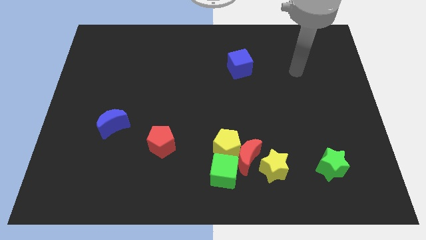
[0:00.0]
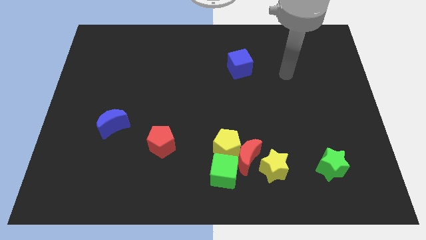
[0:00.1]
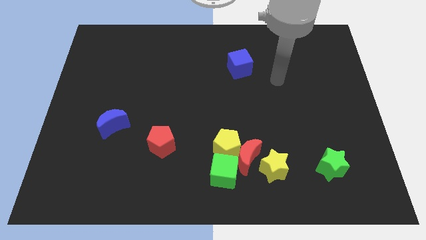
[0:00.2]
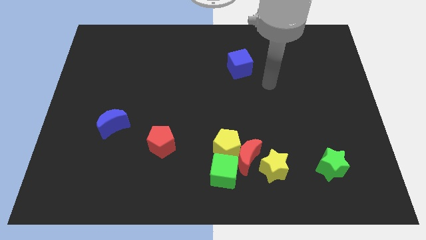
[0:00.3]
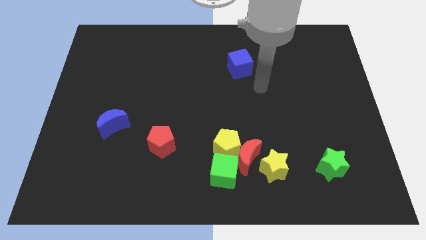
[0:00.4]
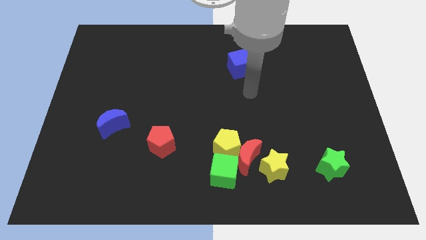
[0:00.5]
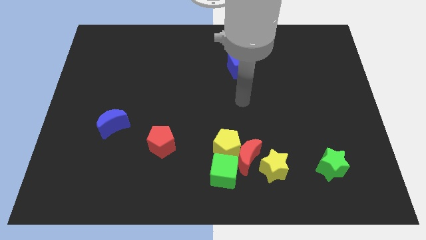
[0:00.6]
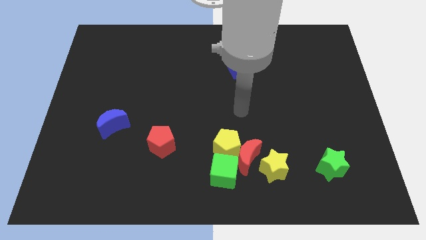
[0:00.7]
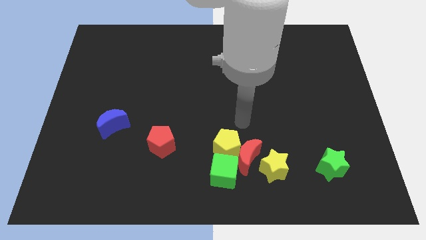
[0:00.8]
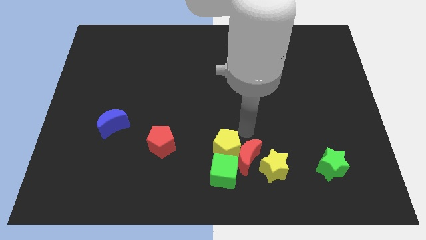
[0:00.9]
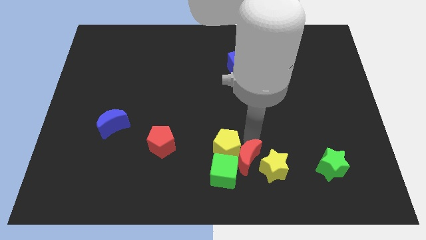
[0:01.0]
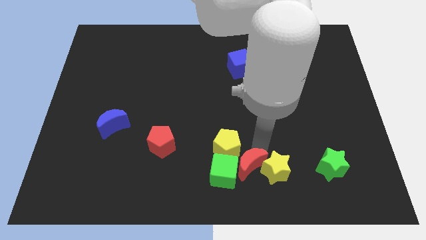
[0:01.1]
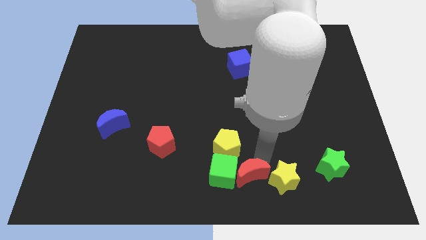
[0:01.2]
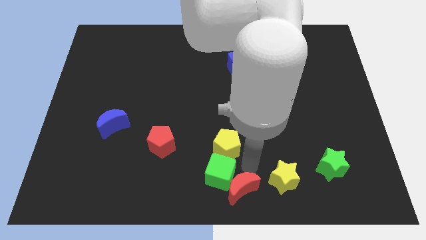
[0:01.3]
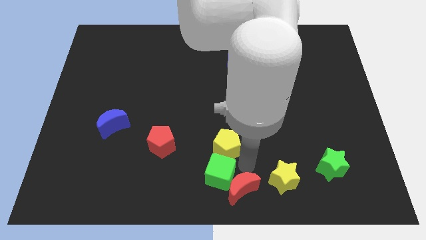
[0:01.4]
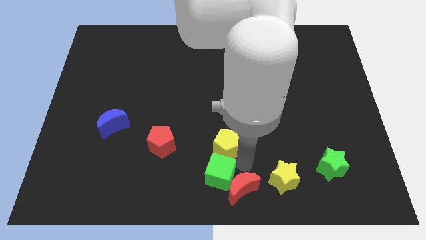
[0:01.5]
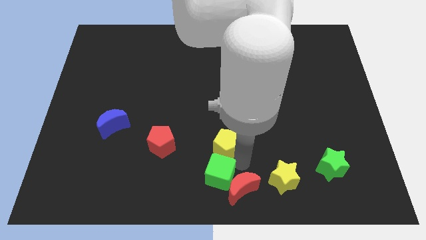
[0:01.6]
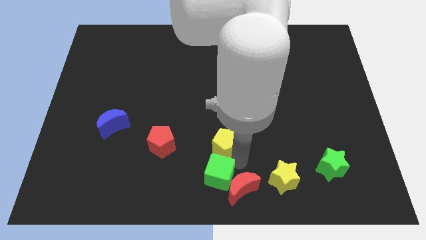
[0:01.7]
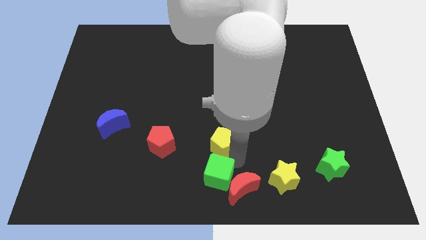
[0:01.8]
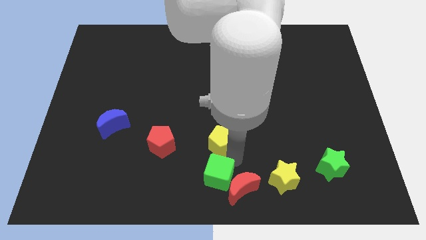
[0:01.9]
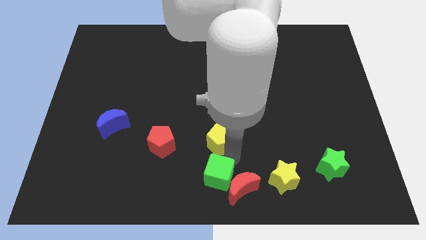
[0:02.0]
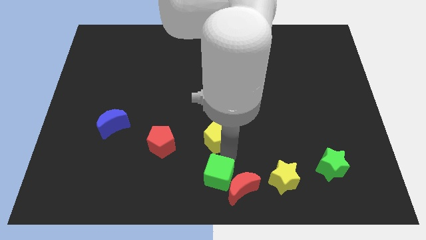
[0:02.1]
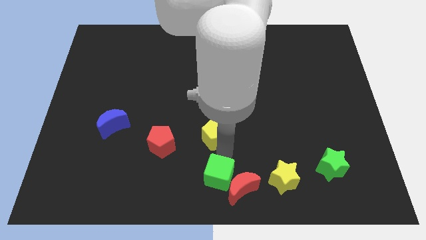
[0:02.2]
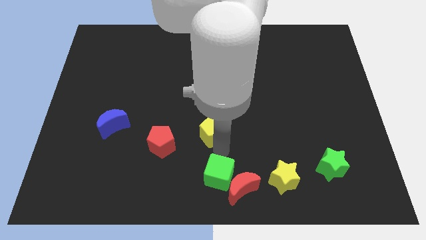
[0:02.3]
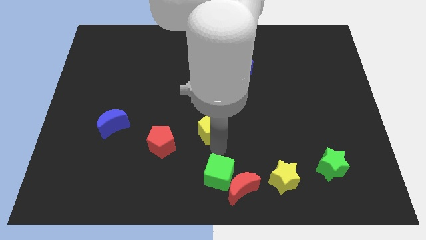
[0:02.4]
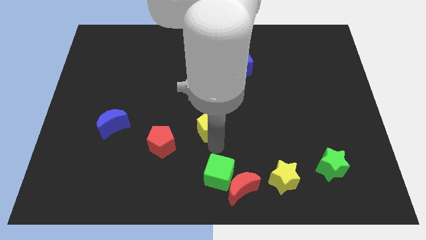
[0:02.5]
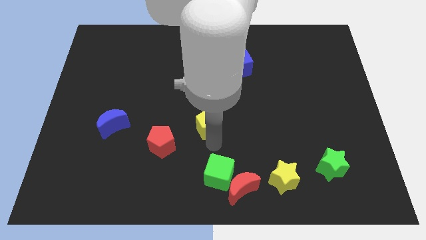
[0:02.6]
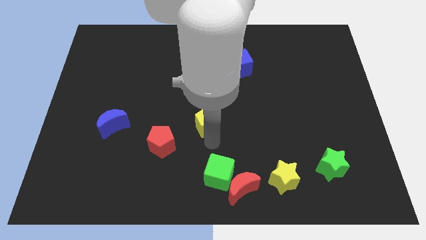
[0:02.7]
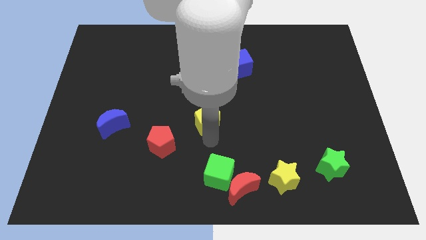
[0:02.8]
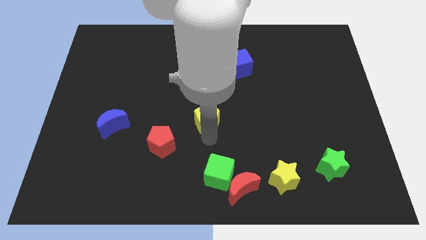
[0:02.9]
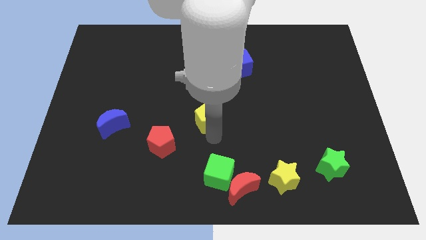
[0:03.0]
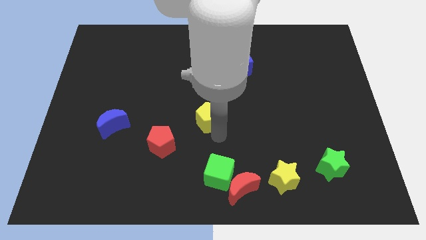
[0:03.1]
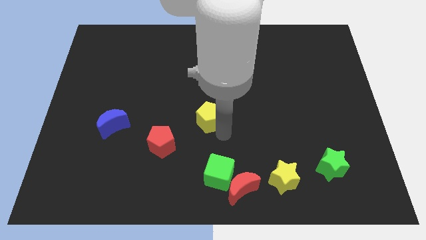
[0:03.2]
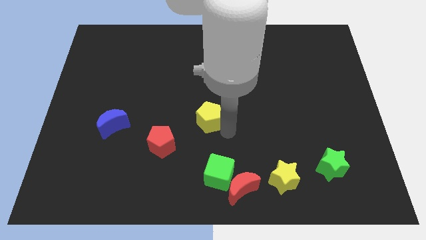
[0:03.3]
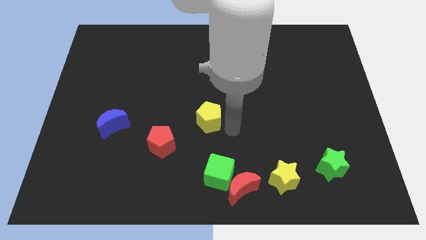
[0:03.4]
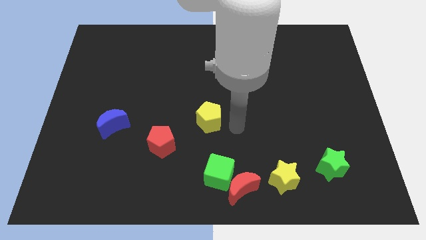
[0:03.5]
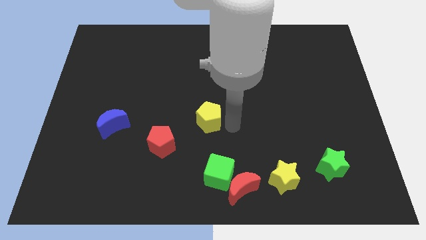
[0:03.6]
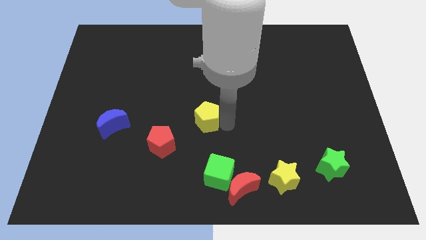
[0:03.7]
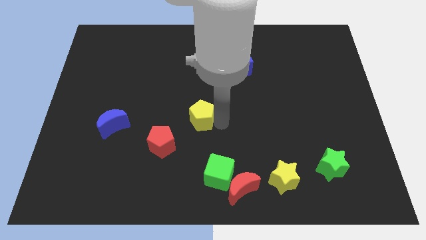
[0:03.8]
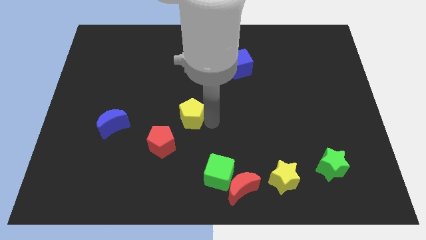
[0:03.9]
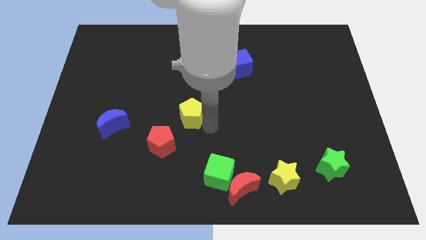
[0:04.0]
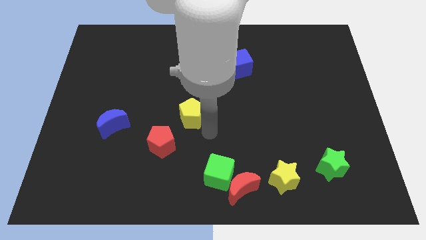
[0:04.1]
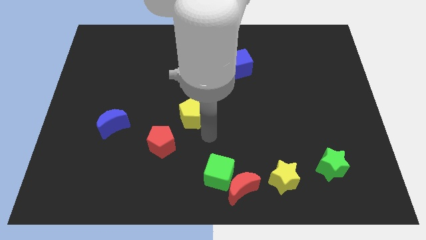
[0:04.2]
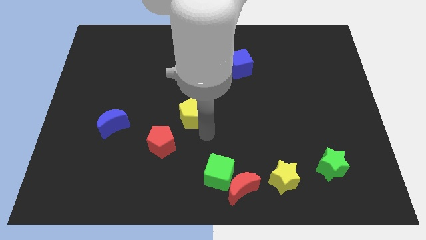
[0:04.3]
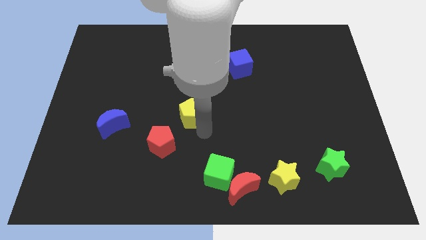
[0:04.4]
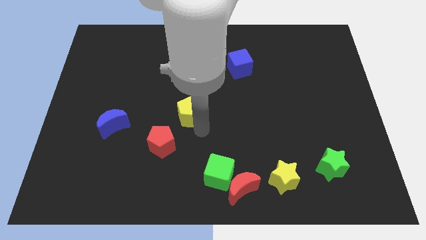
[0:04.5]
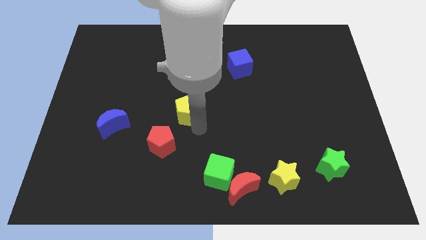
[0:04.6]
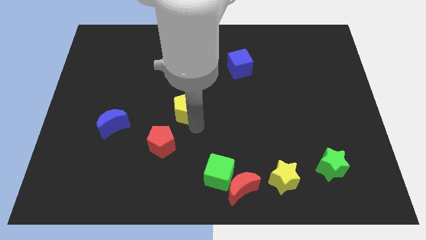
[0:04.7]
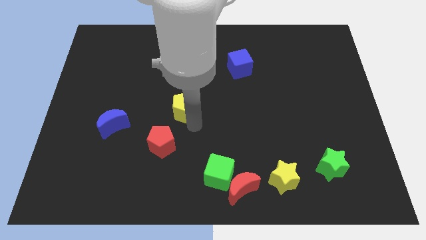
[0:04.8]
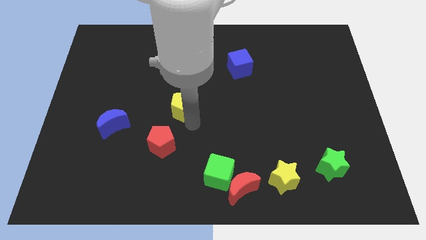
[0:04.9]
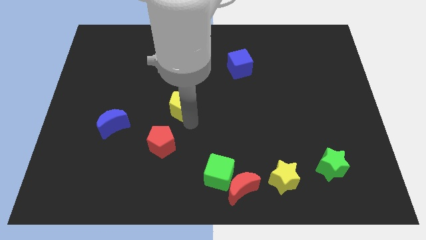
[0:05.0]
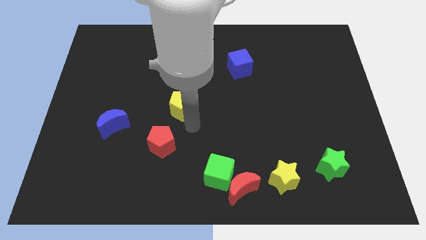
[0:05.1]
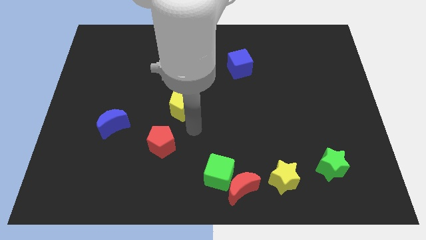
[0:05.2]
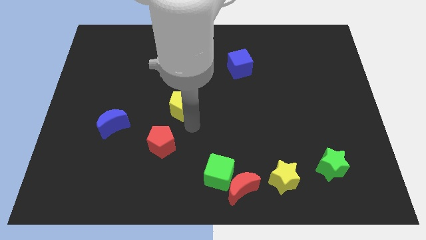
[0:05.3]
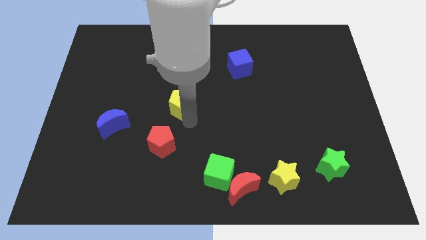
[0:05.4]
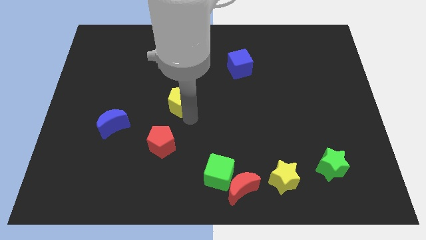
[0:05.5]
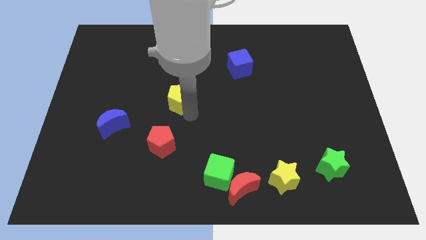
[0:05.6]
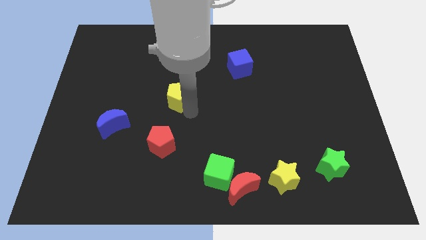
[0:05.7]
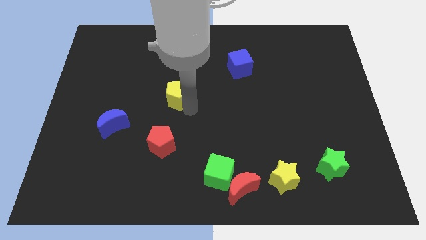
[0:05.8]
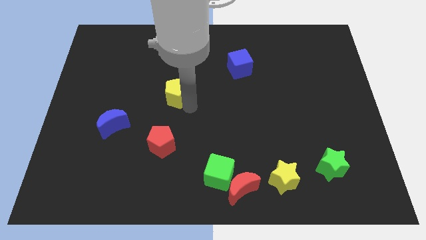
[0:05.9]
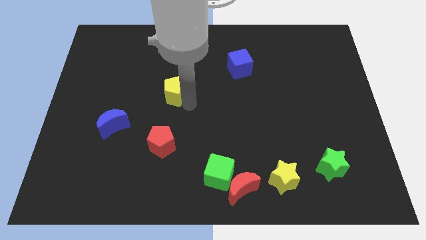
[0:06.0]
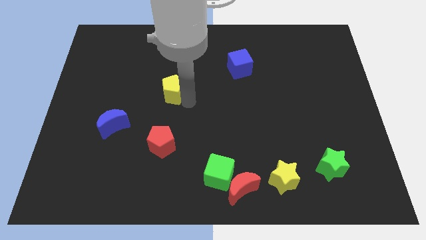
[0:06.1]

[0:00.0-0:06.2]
push the yellow pentagon upwards and then left

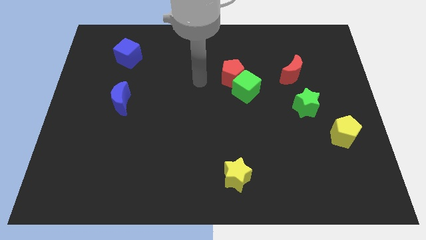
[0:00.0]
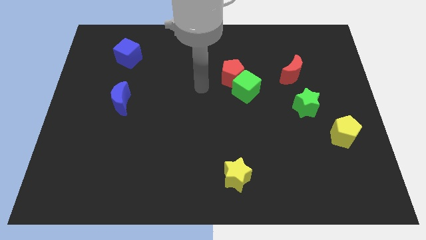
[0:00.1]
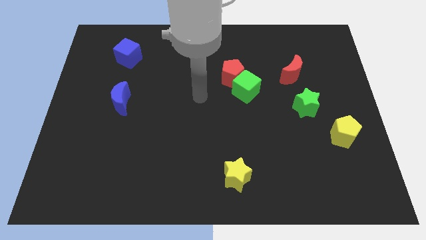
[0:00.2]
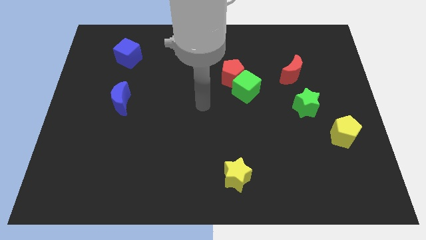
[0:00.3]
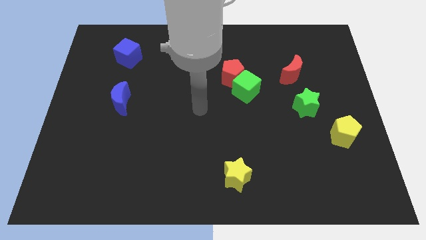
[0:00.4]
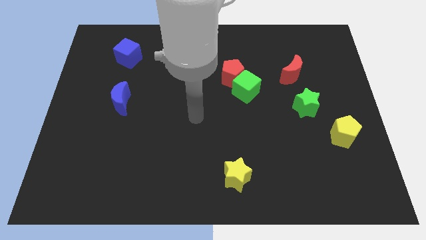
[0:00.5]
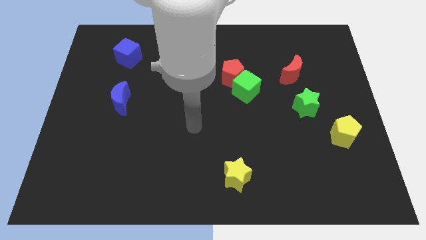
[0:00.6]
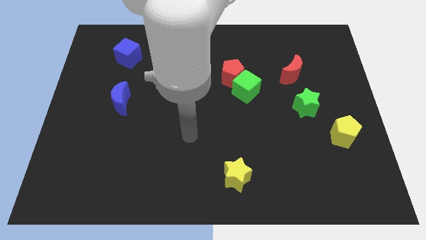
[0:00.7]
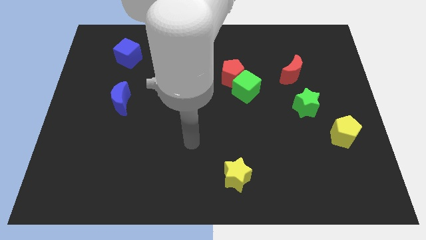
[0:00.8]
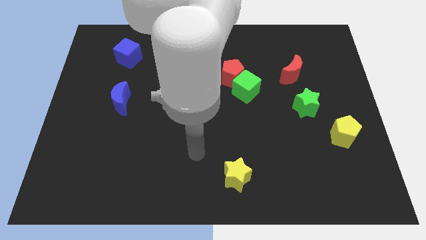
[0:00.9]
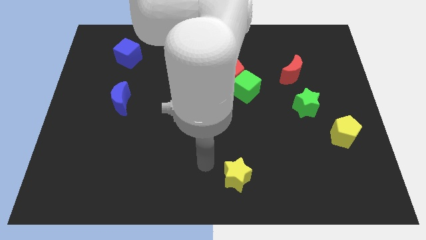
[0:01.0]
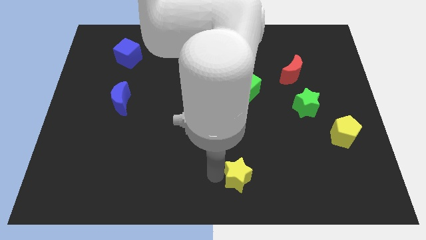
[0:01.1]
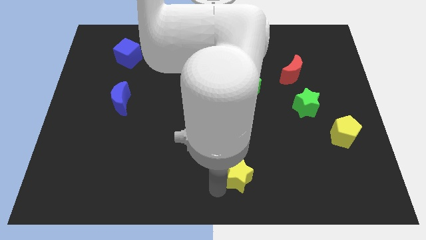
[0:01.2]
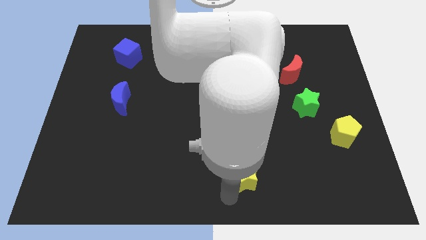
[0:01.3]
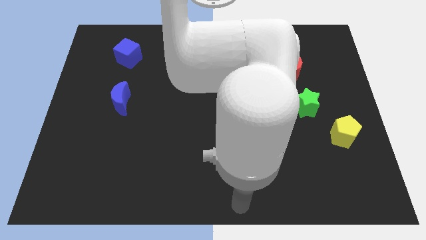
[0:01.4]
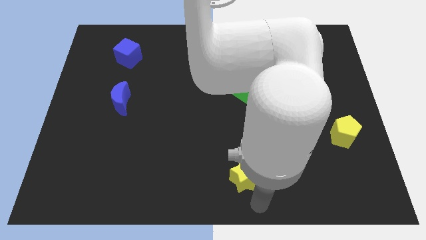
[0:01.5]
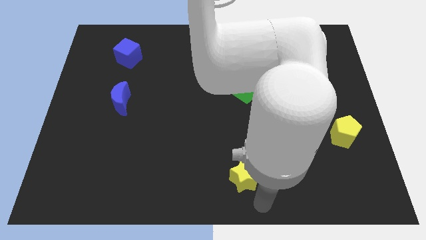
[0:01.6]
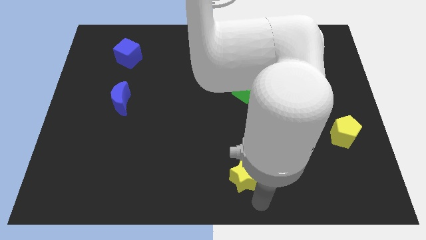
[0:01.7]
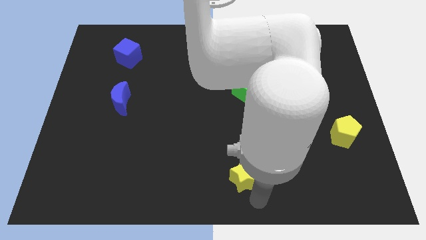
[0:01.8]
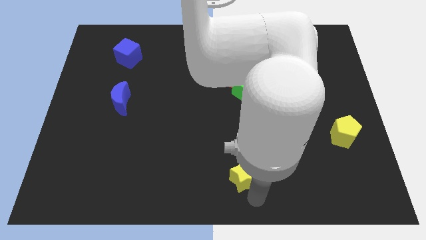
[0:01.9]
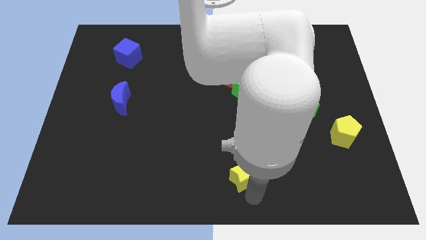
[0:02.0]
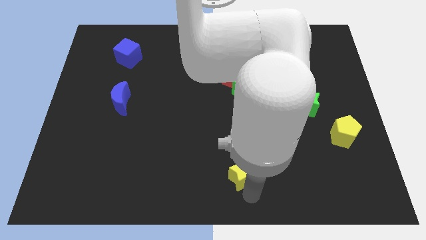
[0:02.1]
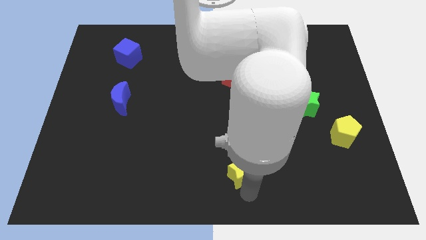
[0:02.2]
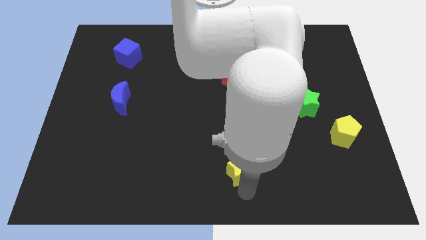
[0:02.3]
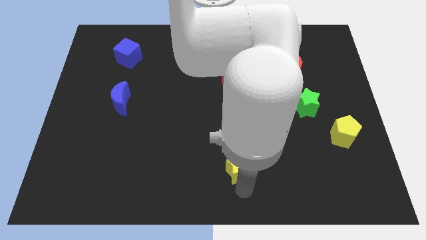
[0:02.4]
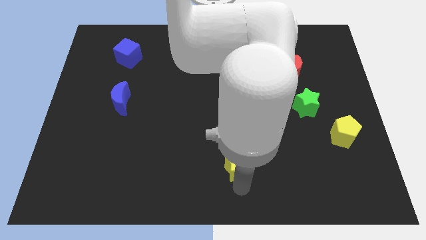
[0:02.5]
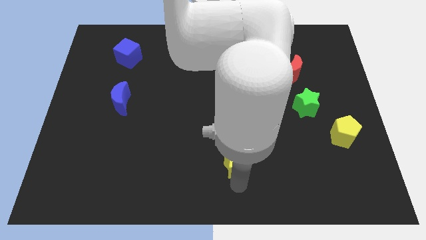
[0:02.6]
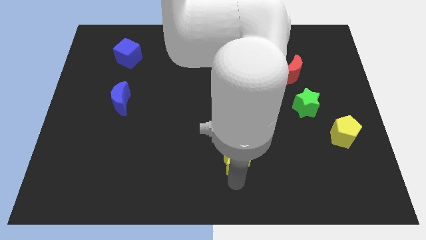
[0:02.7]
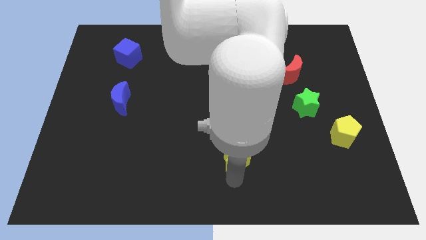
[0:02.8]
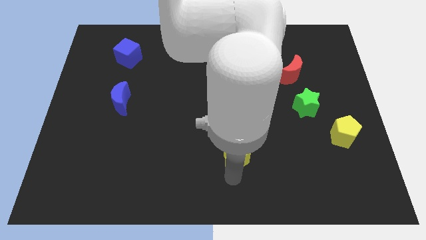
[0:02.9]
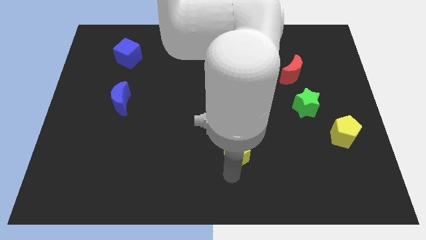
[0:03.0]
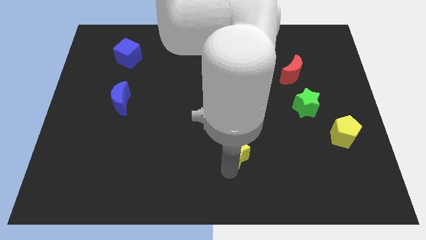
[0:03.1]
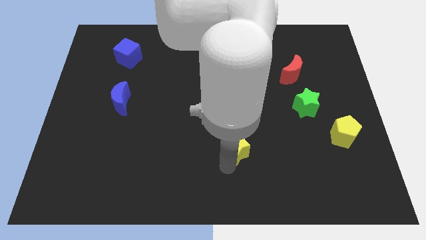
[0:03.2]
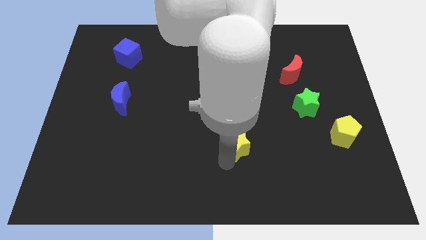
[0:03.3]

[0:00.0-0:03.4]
slightly move the yellow star upwards
